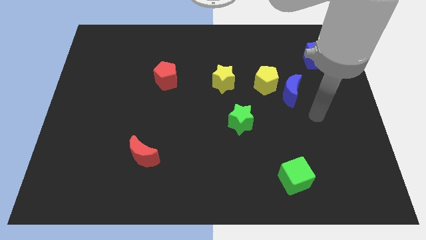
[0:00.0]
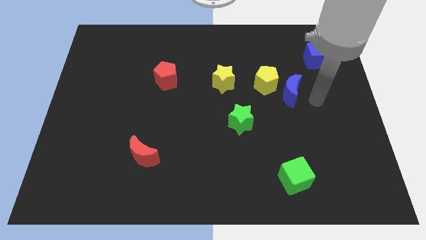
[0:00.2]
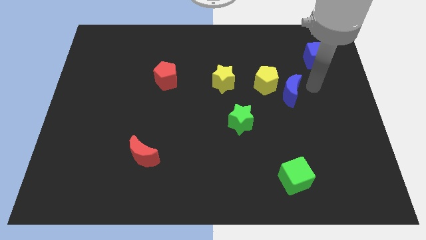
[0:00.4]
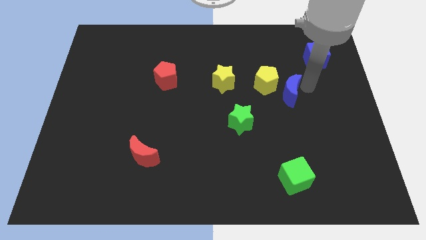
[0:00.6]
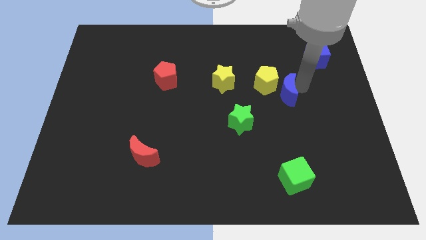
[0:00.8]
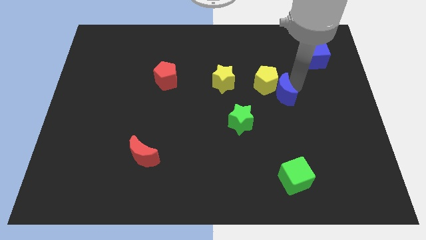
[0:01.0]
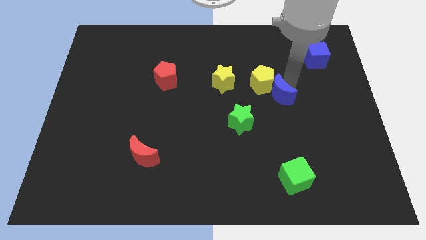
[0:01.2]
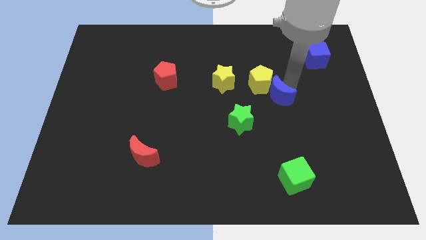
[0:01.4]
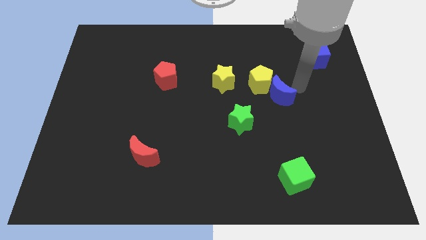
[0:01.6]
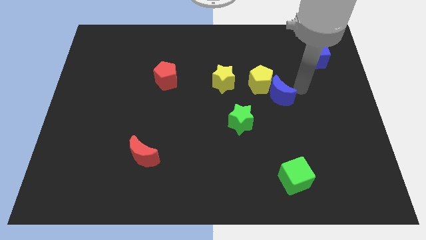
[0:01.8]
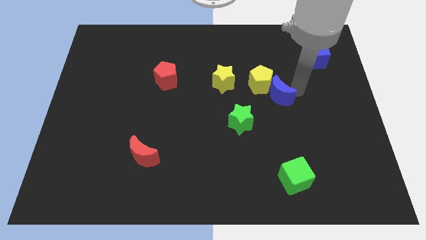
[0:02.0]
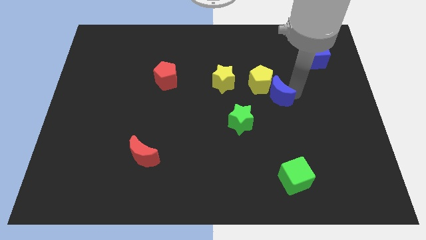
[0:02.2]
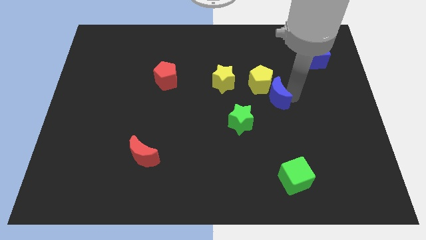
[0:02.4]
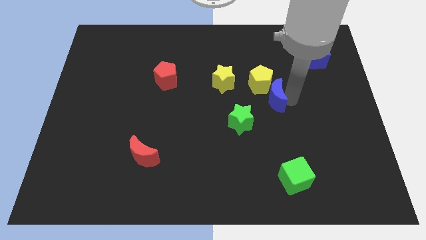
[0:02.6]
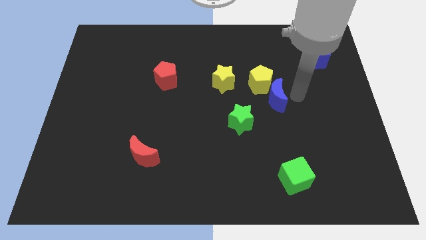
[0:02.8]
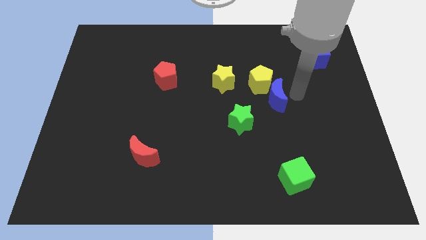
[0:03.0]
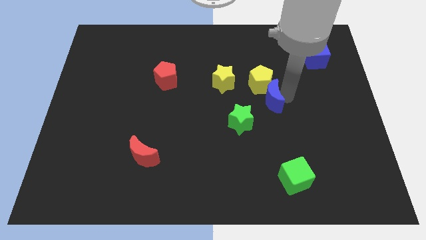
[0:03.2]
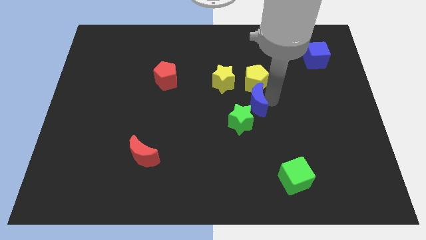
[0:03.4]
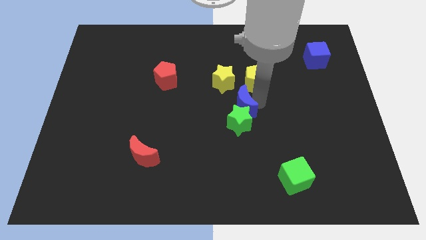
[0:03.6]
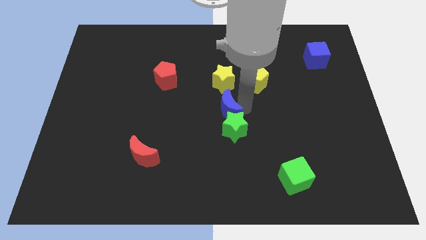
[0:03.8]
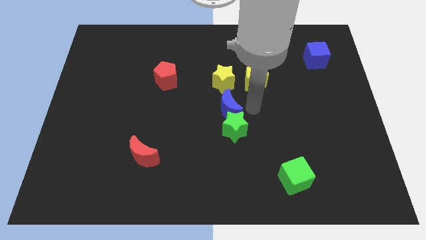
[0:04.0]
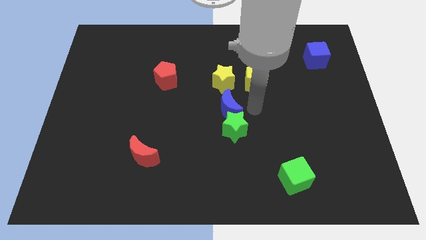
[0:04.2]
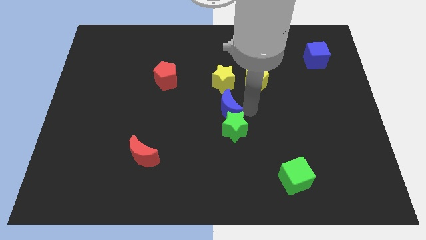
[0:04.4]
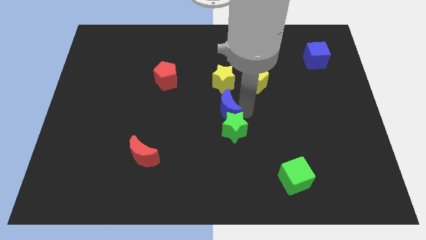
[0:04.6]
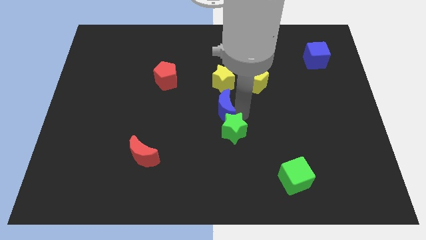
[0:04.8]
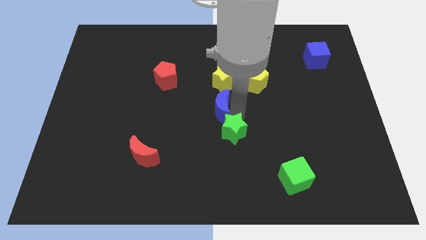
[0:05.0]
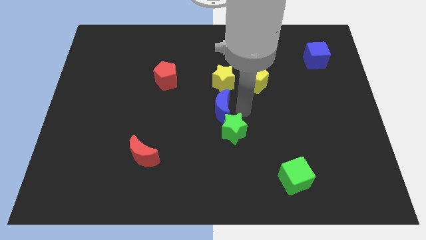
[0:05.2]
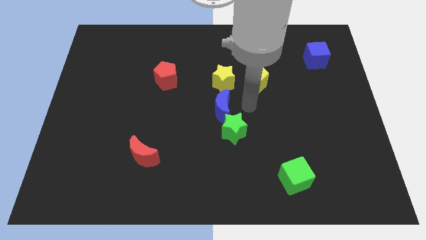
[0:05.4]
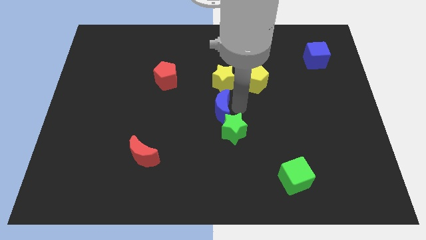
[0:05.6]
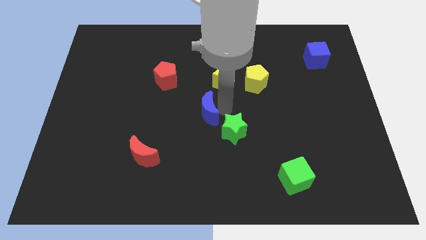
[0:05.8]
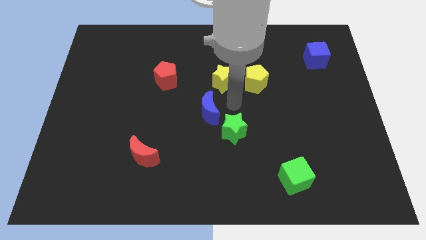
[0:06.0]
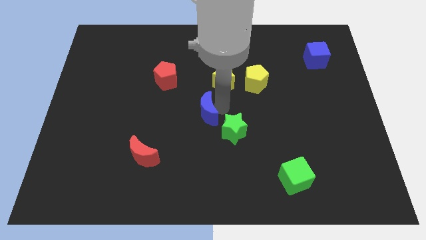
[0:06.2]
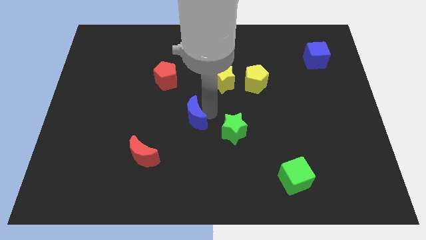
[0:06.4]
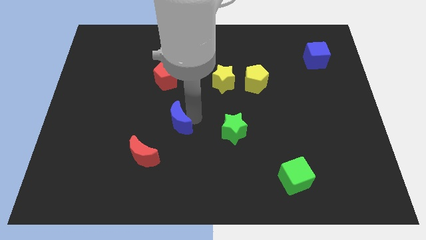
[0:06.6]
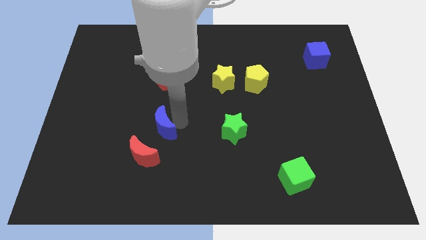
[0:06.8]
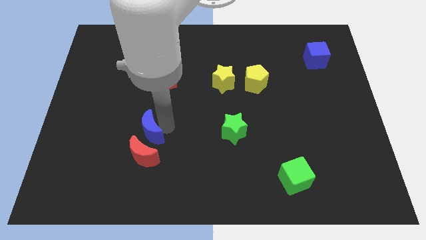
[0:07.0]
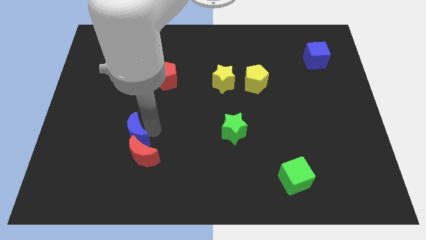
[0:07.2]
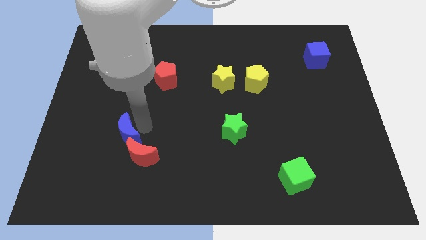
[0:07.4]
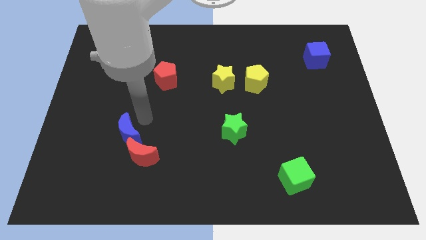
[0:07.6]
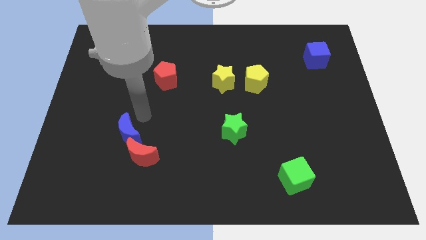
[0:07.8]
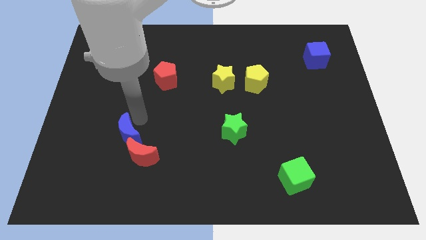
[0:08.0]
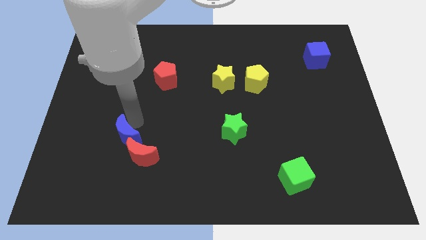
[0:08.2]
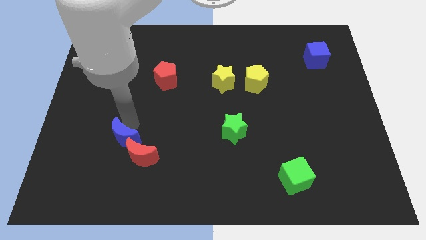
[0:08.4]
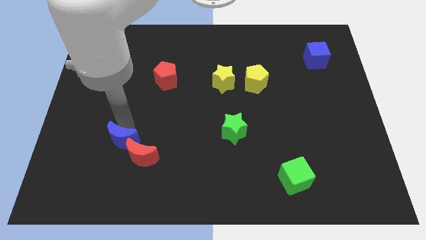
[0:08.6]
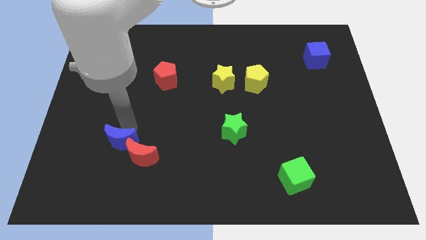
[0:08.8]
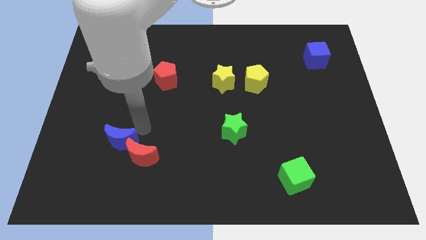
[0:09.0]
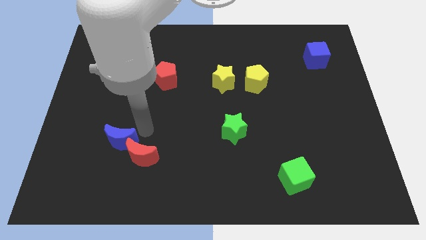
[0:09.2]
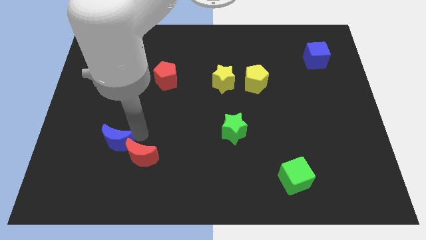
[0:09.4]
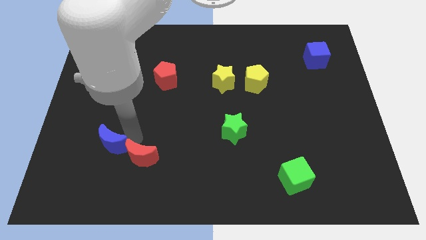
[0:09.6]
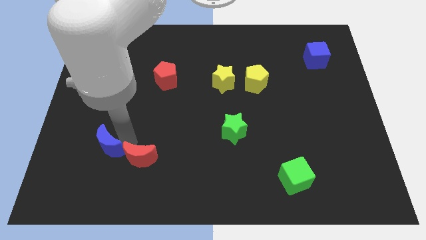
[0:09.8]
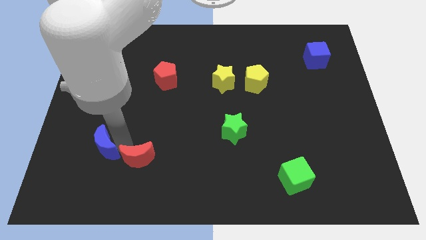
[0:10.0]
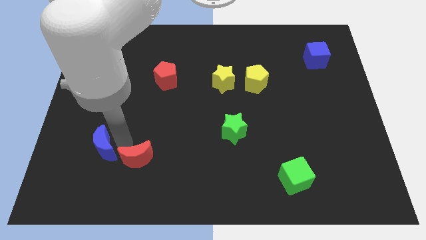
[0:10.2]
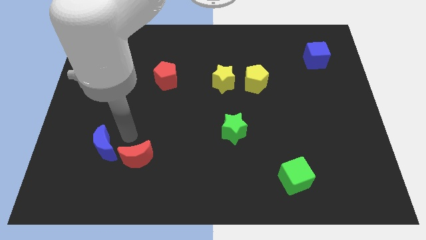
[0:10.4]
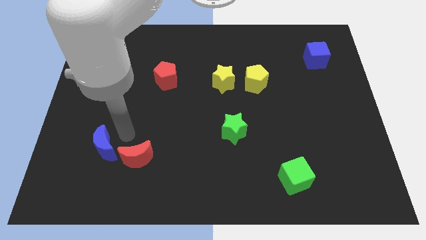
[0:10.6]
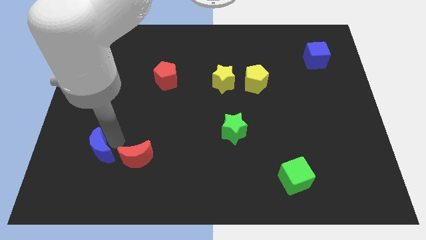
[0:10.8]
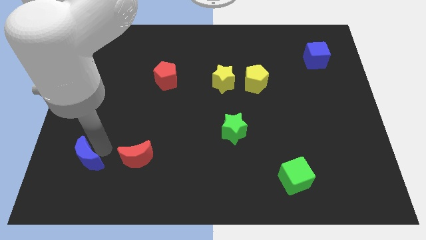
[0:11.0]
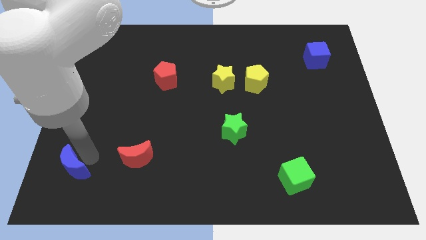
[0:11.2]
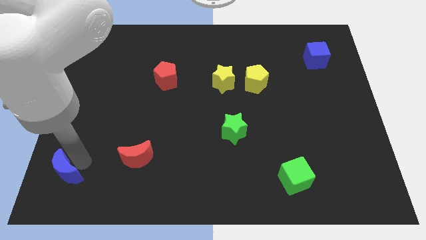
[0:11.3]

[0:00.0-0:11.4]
put the blue moon to the bottom left of the board
